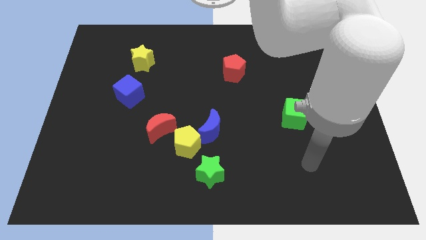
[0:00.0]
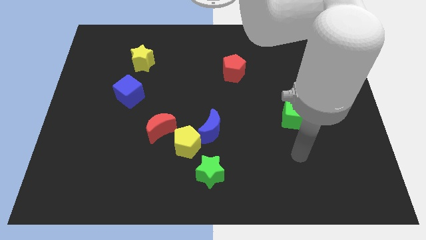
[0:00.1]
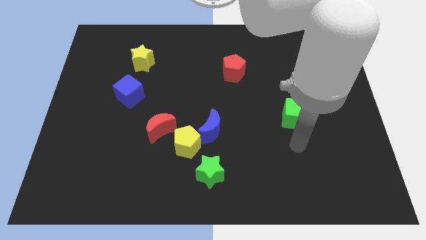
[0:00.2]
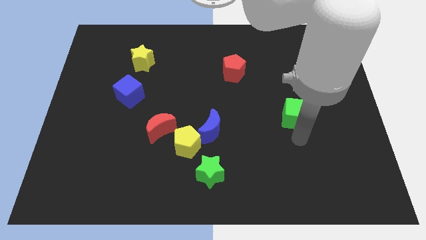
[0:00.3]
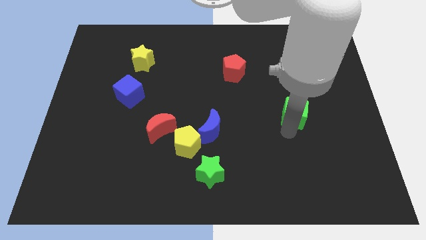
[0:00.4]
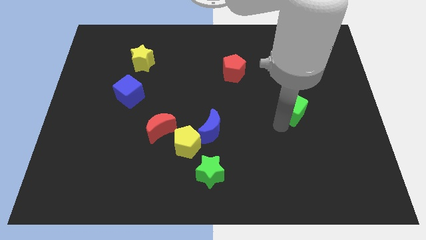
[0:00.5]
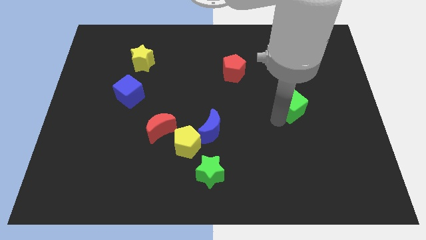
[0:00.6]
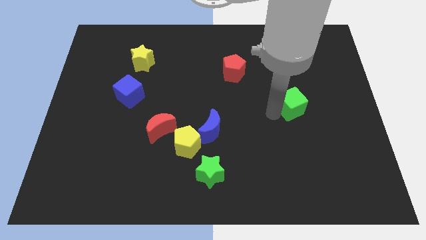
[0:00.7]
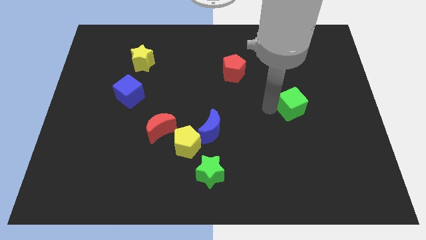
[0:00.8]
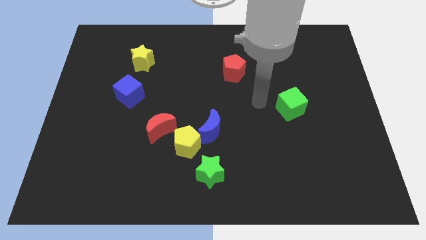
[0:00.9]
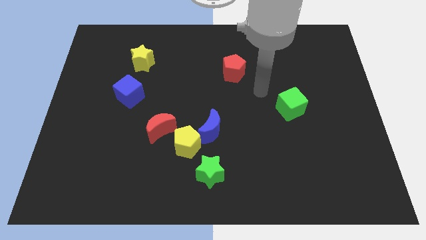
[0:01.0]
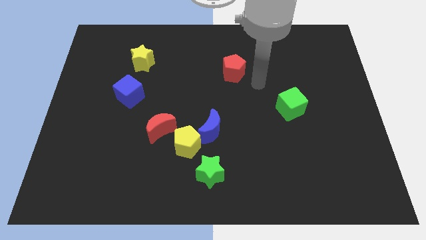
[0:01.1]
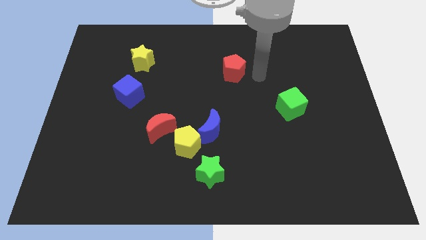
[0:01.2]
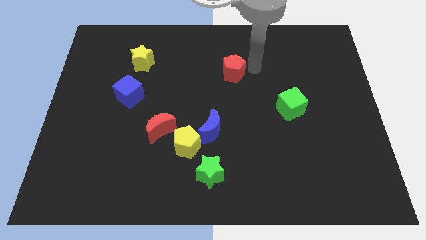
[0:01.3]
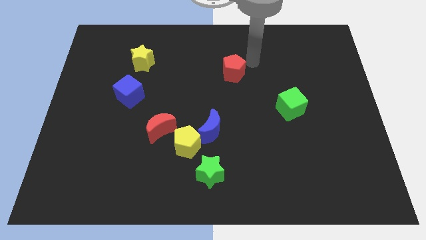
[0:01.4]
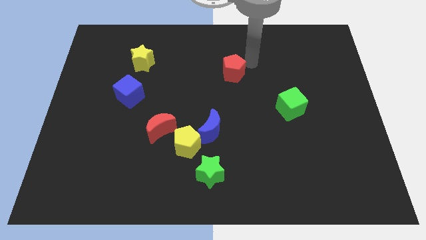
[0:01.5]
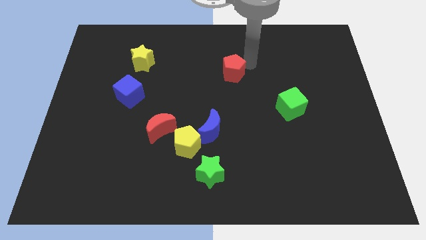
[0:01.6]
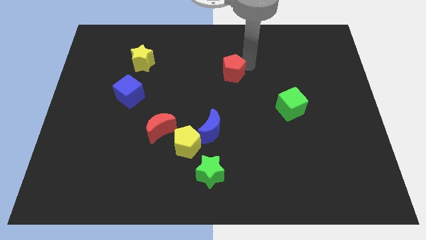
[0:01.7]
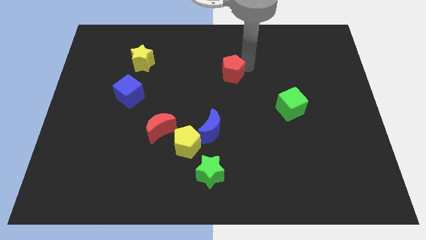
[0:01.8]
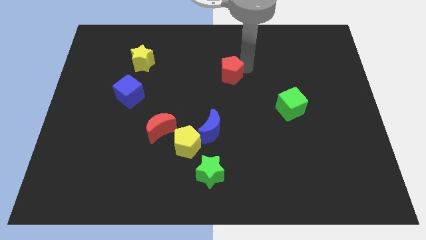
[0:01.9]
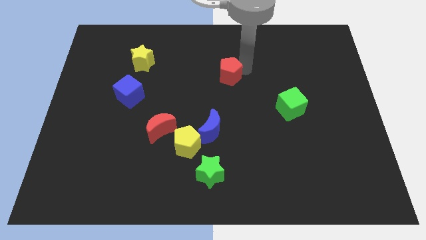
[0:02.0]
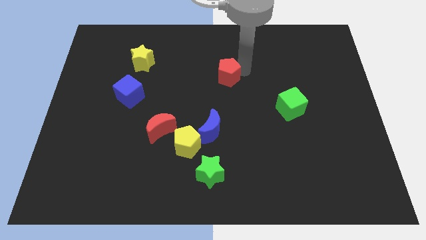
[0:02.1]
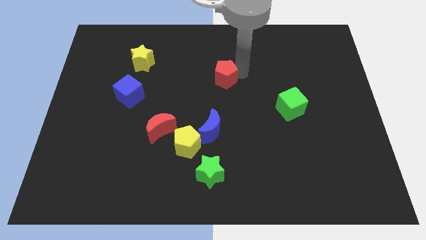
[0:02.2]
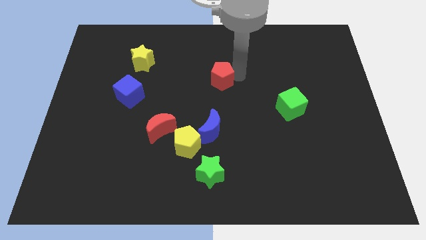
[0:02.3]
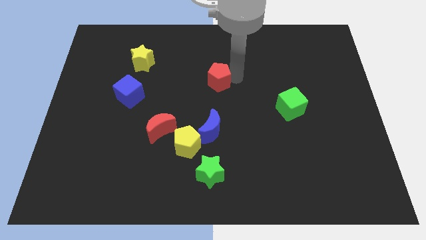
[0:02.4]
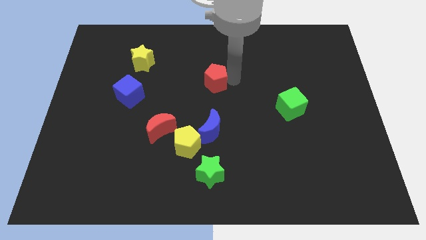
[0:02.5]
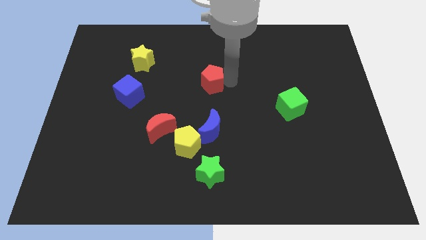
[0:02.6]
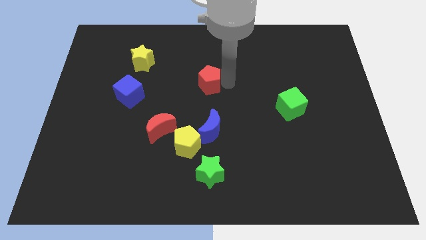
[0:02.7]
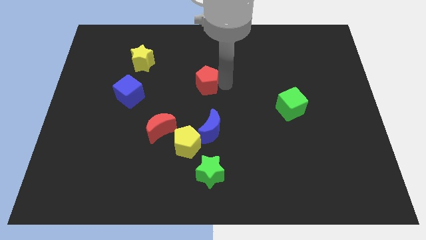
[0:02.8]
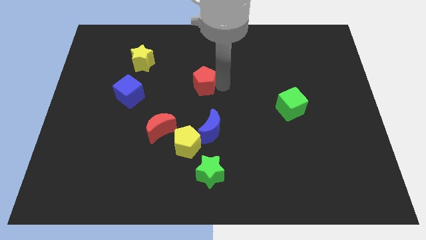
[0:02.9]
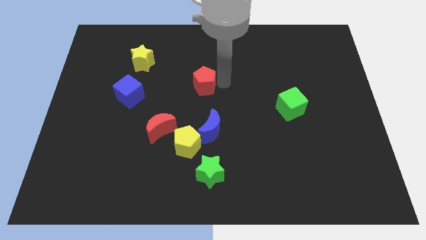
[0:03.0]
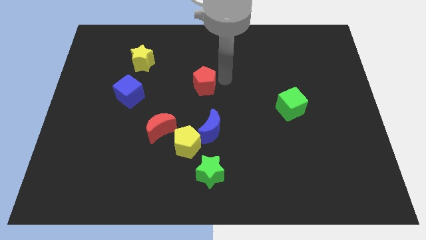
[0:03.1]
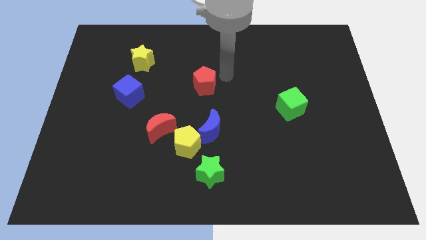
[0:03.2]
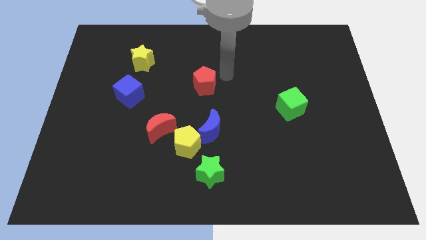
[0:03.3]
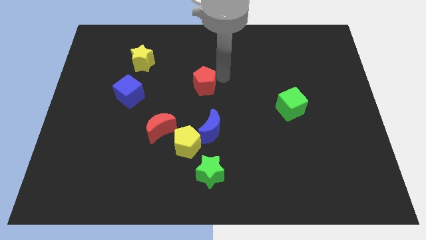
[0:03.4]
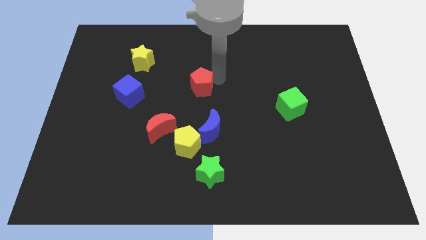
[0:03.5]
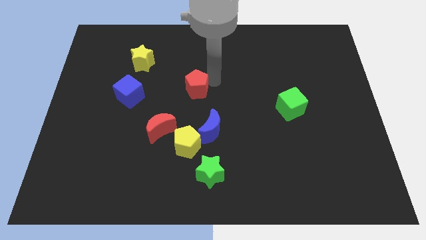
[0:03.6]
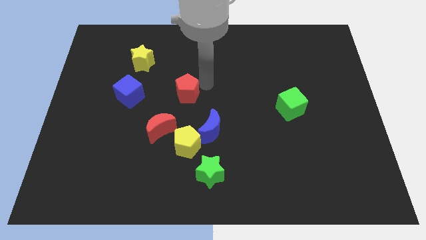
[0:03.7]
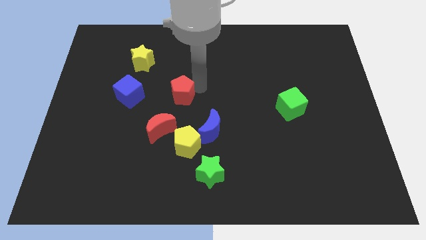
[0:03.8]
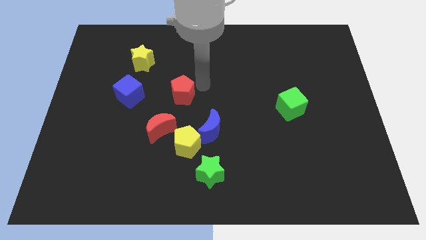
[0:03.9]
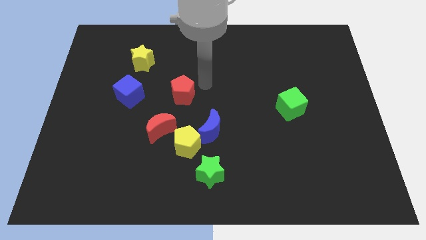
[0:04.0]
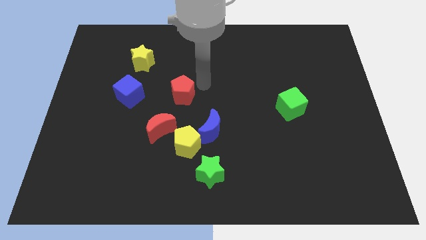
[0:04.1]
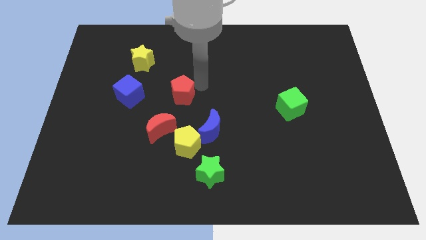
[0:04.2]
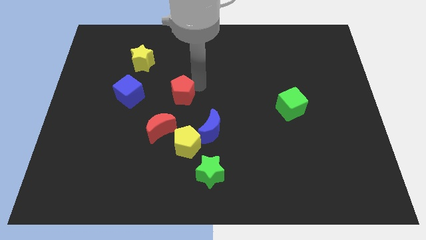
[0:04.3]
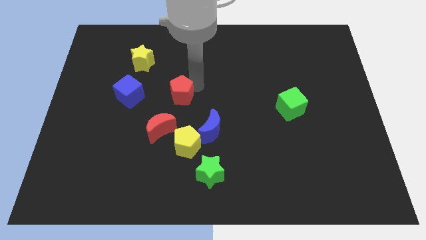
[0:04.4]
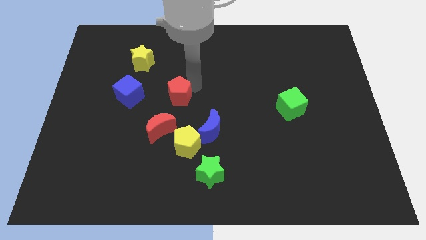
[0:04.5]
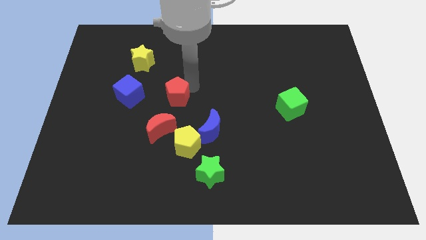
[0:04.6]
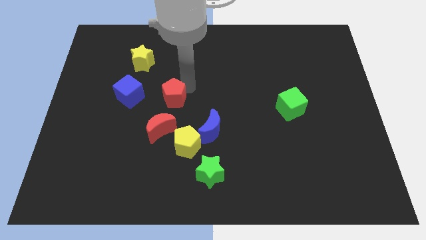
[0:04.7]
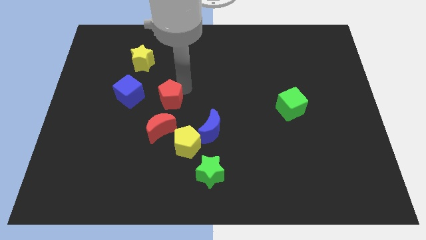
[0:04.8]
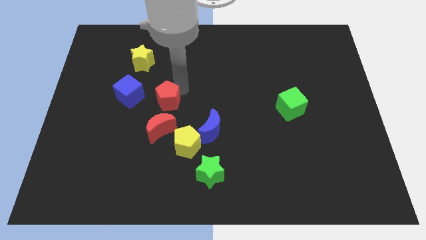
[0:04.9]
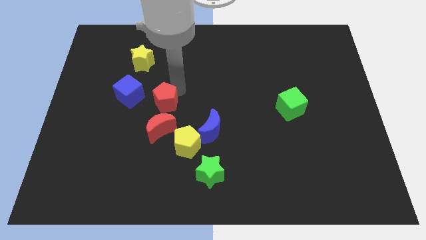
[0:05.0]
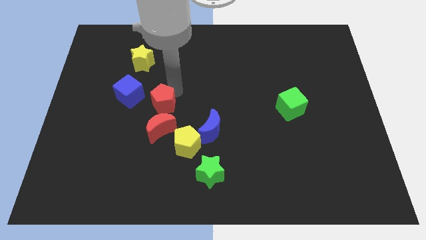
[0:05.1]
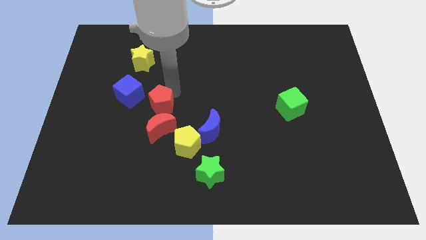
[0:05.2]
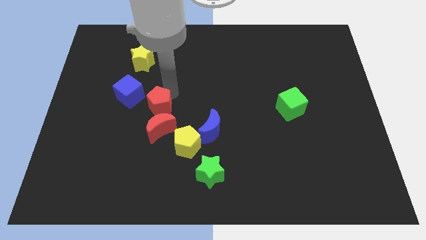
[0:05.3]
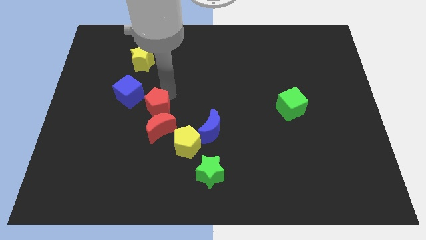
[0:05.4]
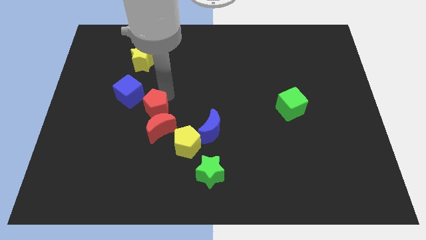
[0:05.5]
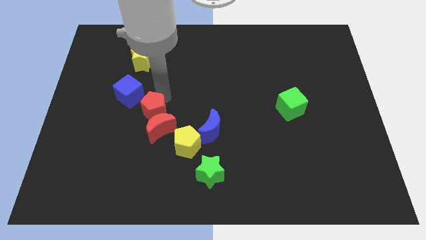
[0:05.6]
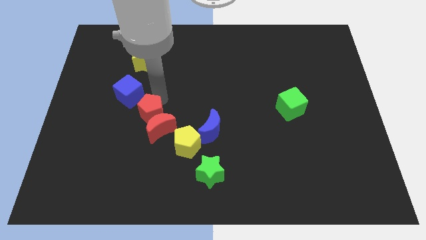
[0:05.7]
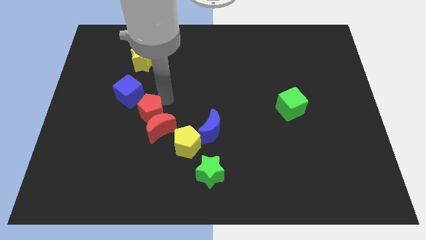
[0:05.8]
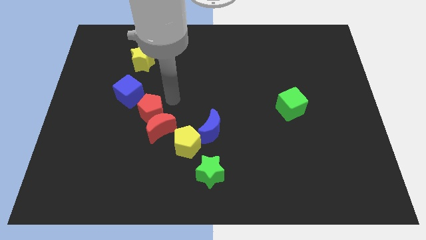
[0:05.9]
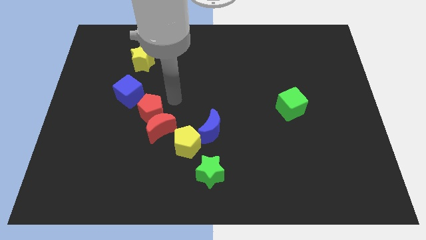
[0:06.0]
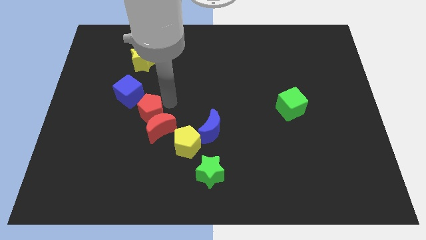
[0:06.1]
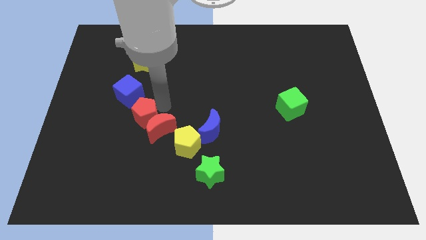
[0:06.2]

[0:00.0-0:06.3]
push the red pentagon to the bottom of the blue cube
